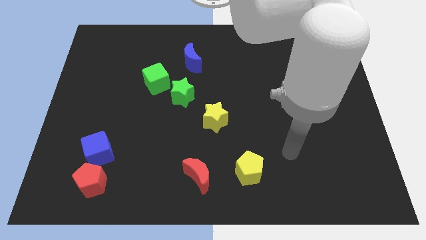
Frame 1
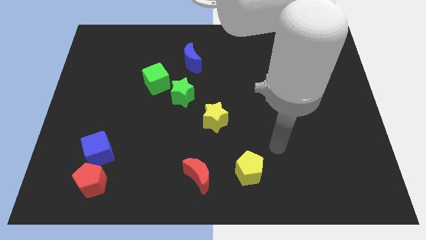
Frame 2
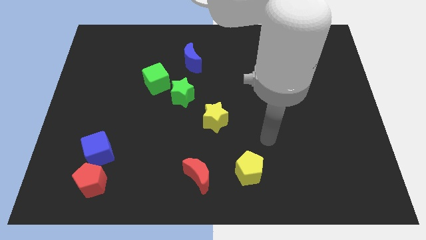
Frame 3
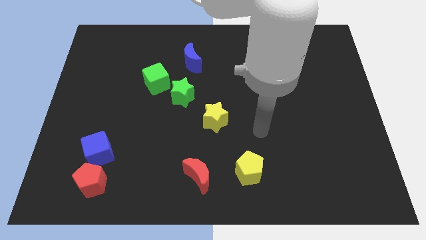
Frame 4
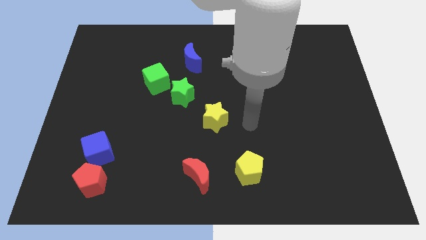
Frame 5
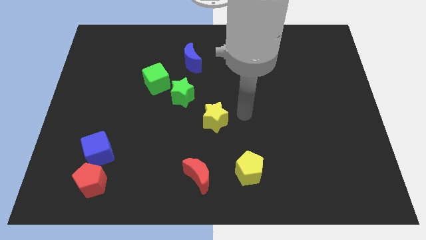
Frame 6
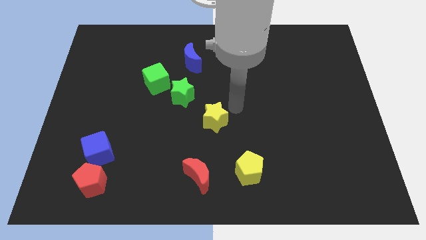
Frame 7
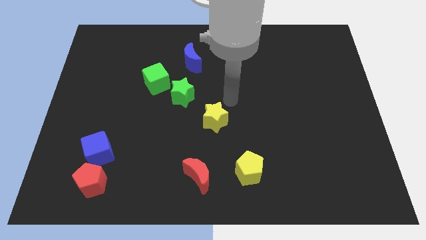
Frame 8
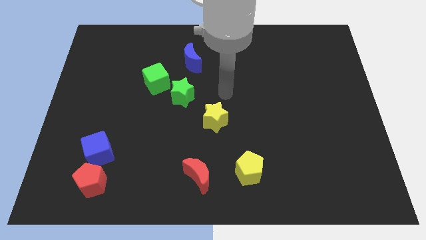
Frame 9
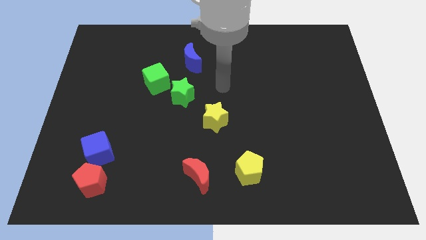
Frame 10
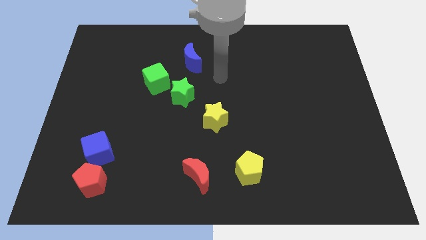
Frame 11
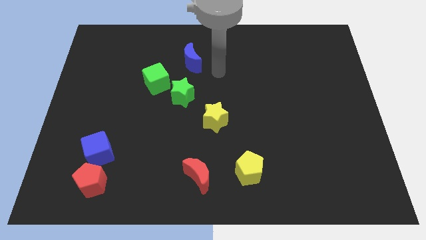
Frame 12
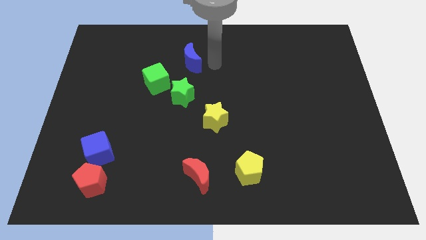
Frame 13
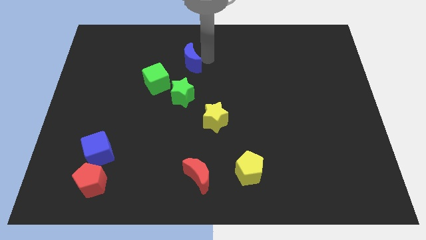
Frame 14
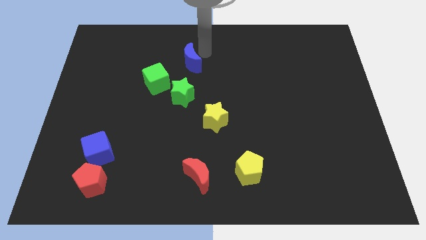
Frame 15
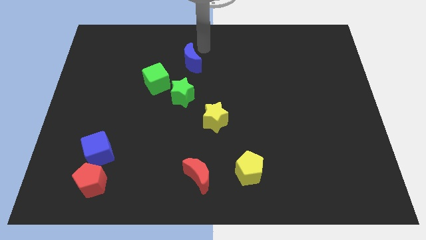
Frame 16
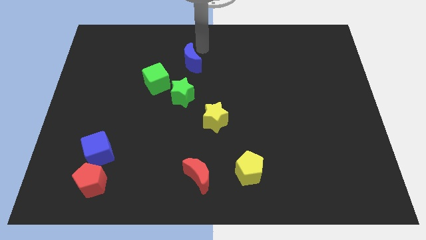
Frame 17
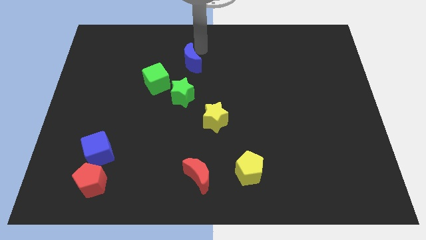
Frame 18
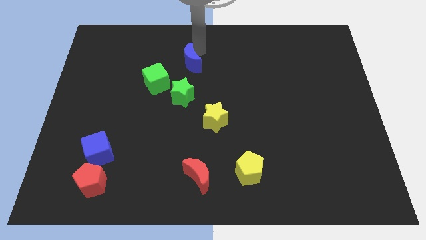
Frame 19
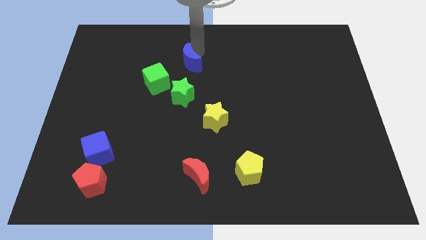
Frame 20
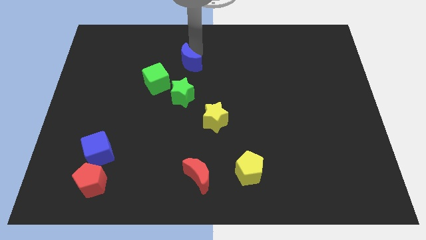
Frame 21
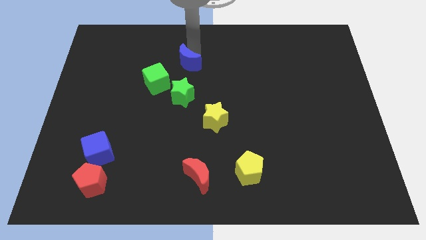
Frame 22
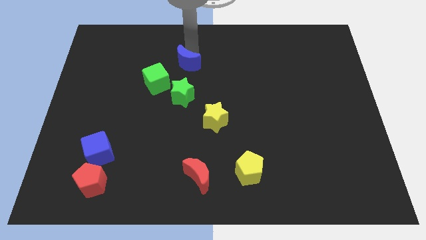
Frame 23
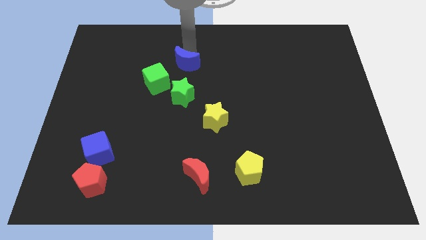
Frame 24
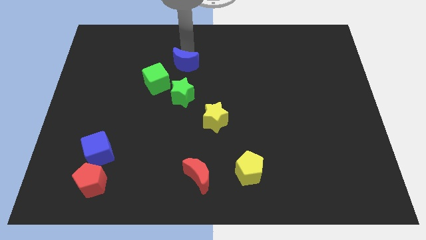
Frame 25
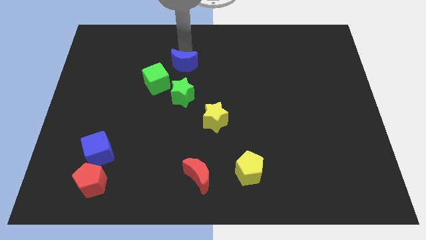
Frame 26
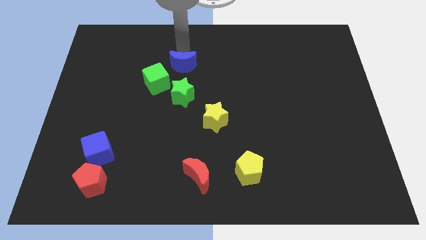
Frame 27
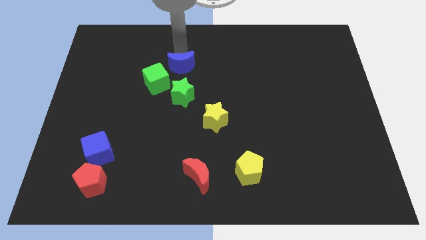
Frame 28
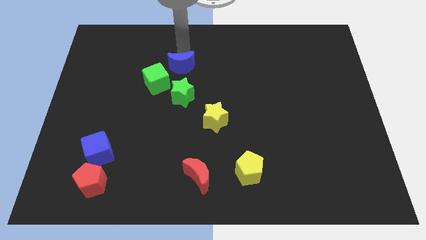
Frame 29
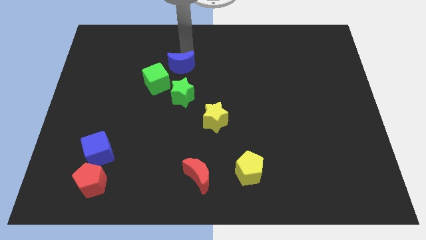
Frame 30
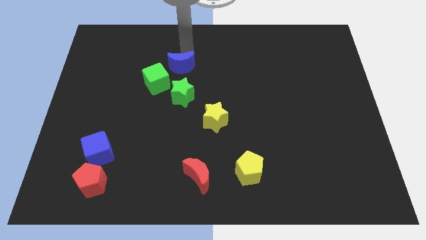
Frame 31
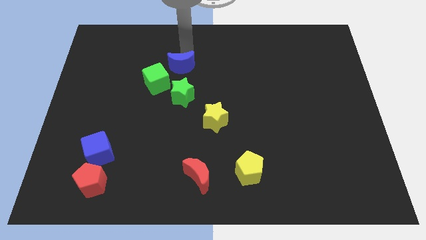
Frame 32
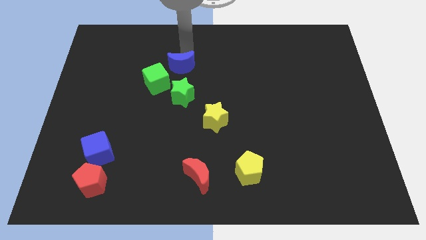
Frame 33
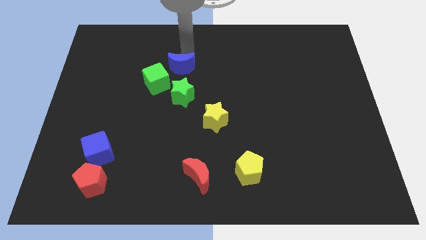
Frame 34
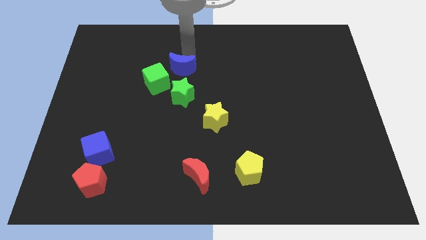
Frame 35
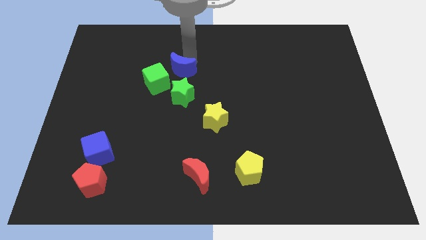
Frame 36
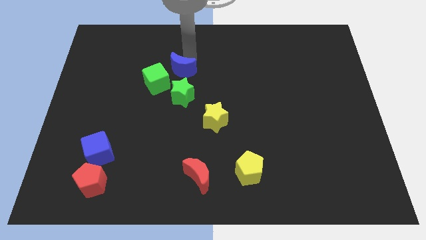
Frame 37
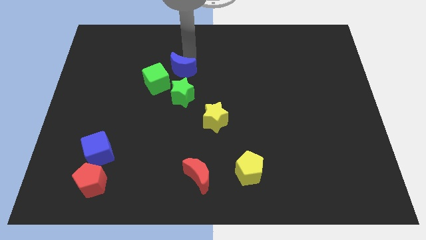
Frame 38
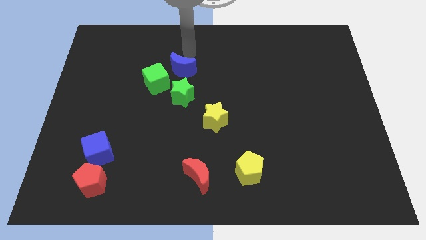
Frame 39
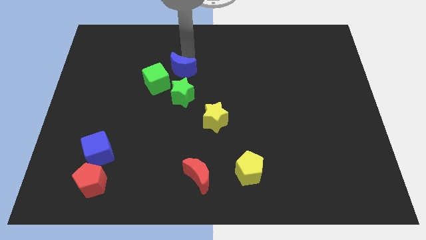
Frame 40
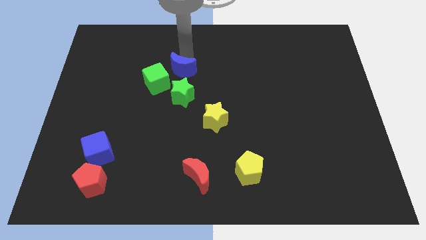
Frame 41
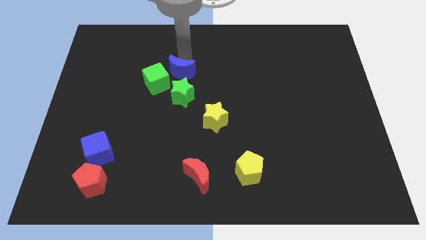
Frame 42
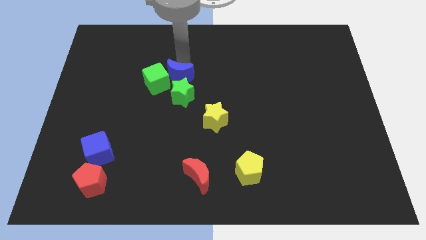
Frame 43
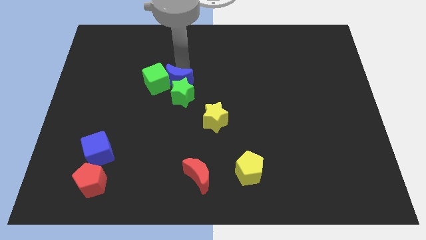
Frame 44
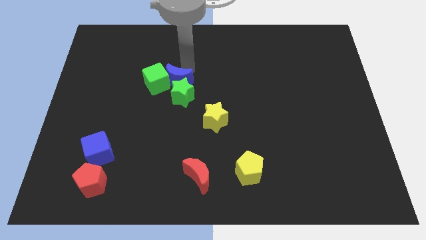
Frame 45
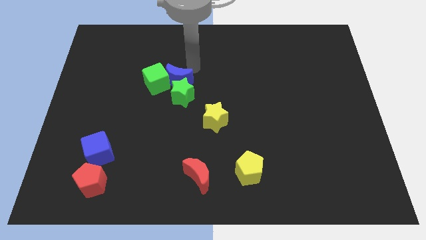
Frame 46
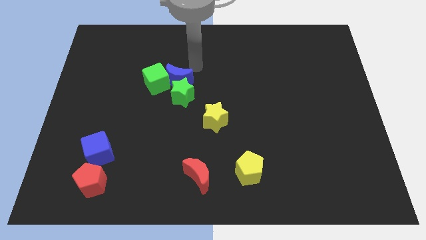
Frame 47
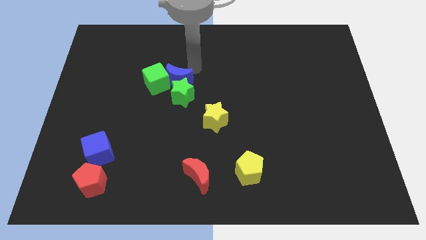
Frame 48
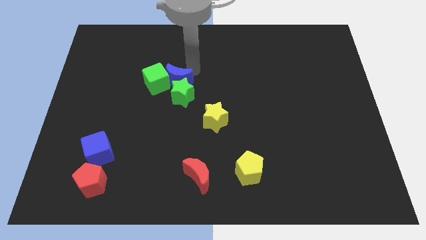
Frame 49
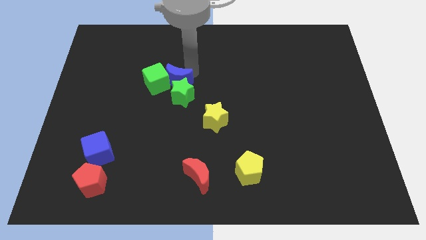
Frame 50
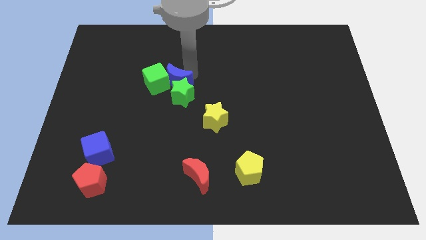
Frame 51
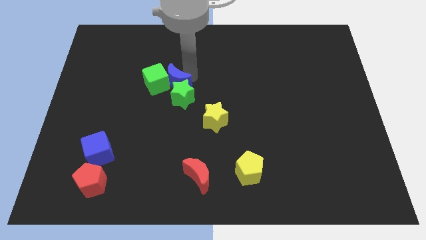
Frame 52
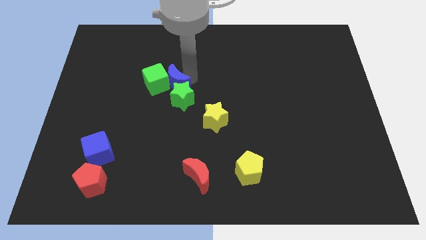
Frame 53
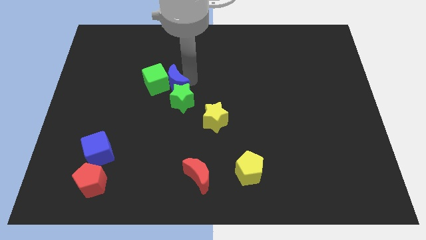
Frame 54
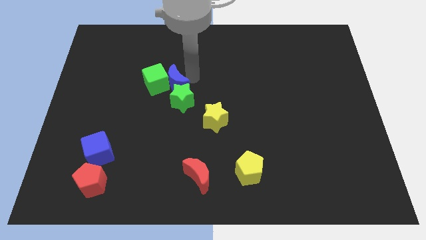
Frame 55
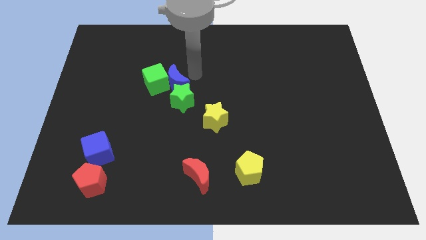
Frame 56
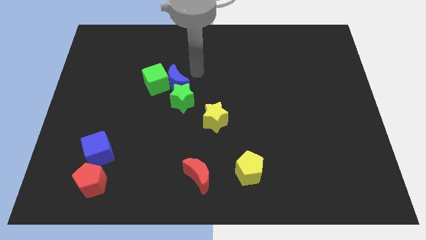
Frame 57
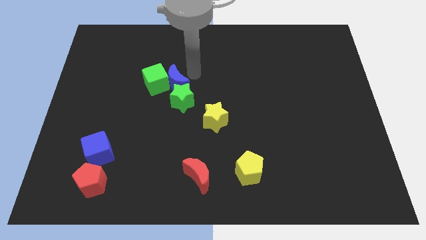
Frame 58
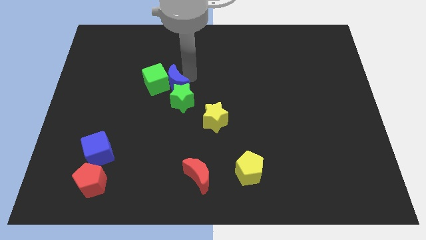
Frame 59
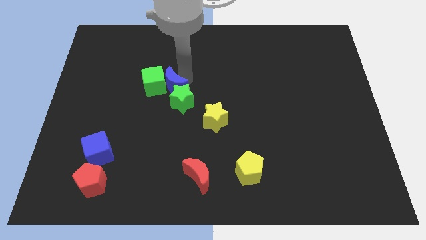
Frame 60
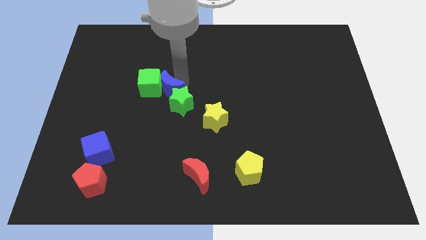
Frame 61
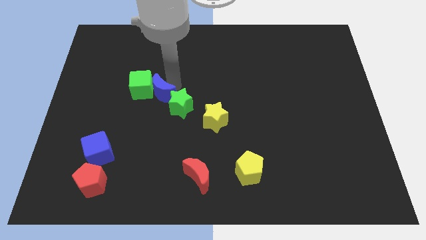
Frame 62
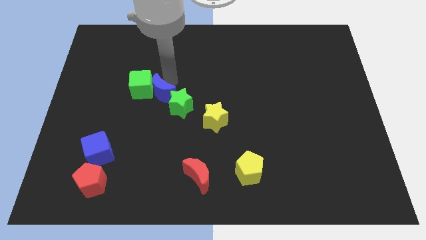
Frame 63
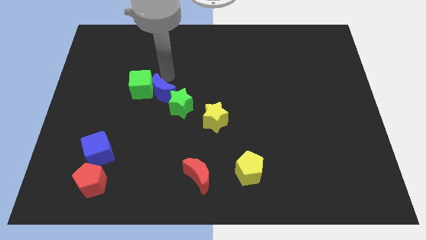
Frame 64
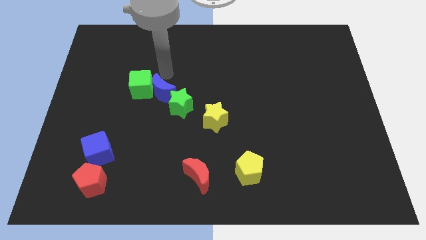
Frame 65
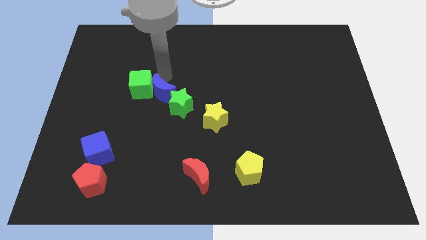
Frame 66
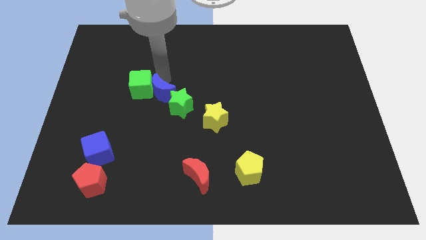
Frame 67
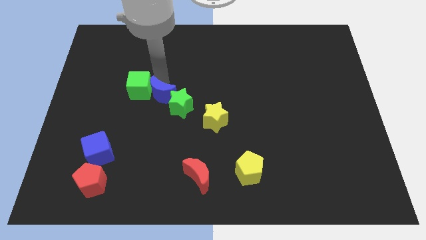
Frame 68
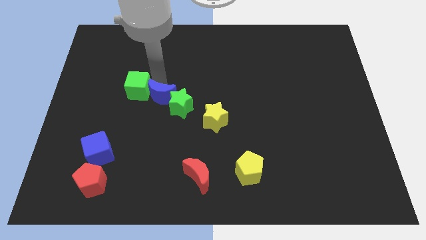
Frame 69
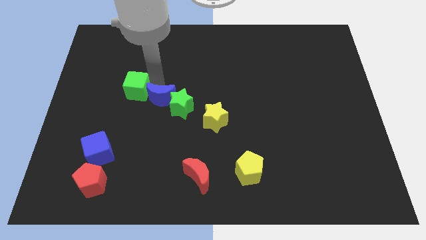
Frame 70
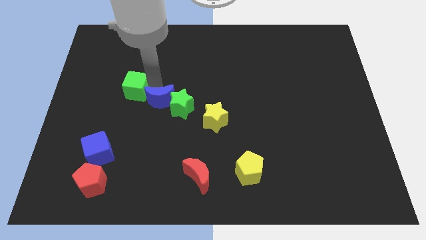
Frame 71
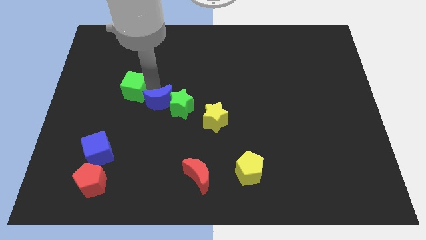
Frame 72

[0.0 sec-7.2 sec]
slide the blue moon to the bottom left of the green star
